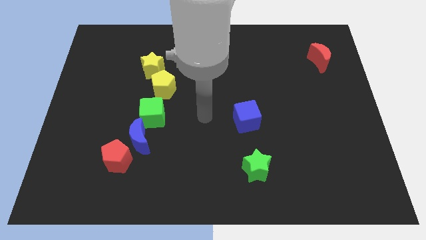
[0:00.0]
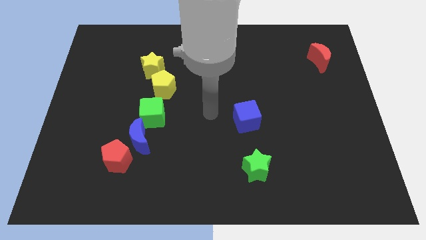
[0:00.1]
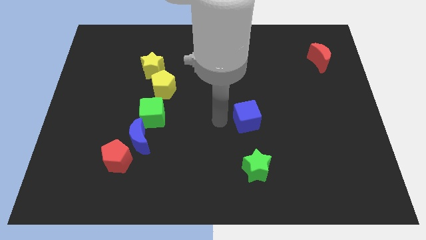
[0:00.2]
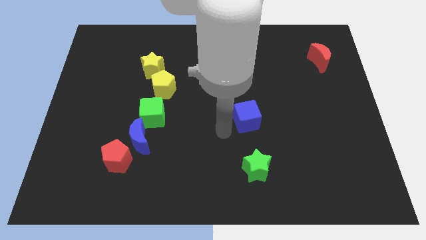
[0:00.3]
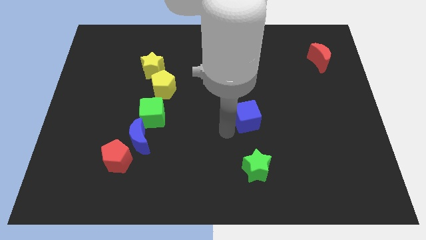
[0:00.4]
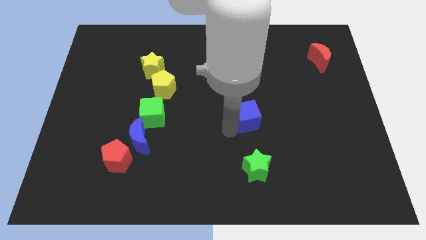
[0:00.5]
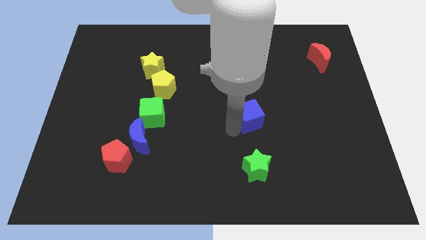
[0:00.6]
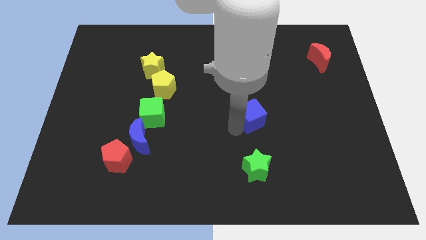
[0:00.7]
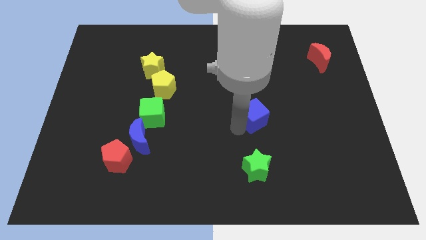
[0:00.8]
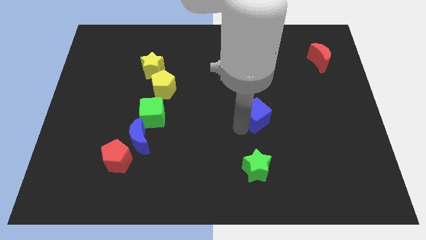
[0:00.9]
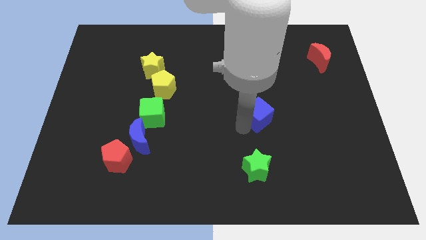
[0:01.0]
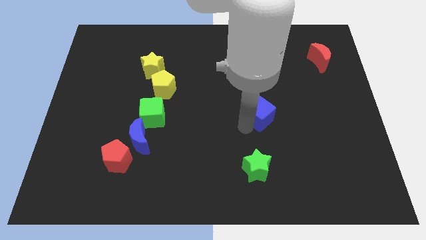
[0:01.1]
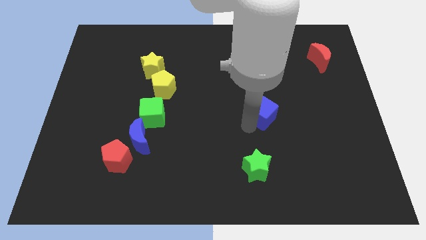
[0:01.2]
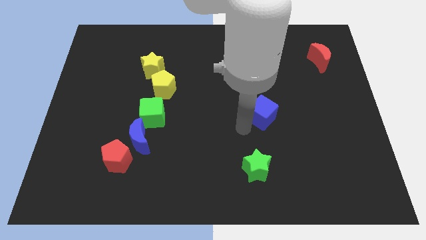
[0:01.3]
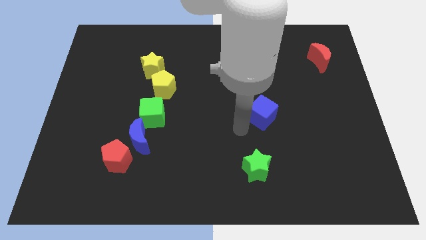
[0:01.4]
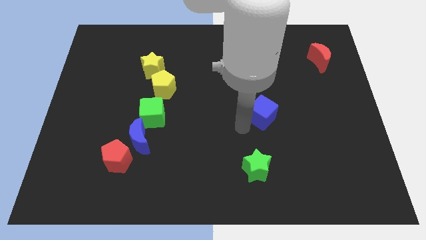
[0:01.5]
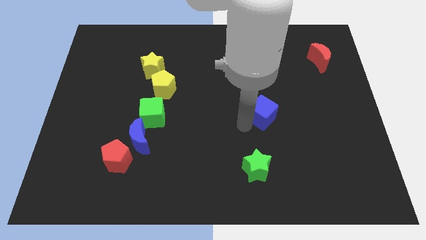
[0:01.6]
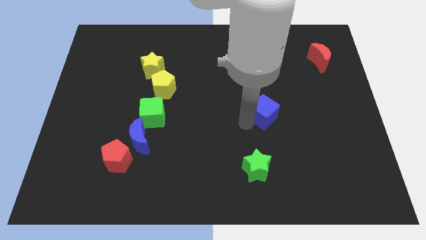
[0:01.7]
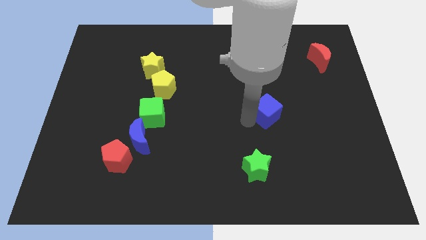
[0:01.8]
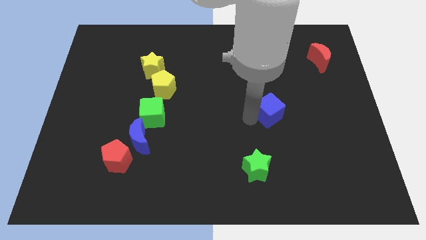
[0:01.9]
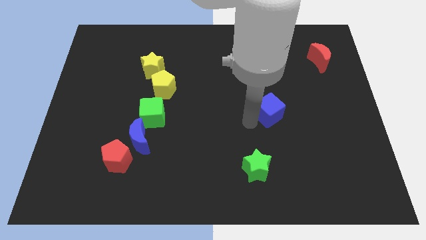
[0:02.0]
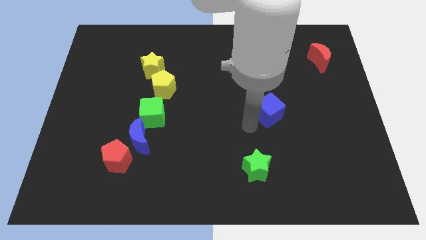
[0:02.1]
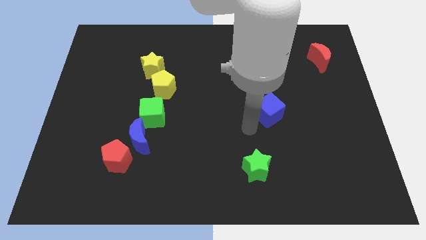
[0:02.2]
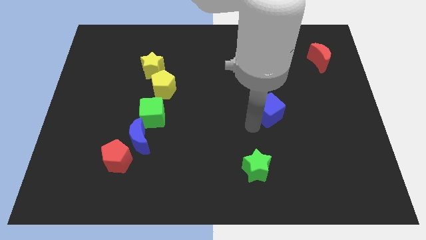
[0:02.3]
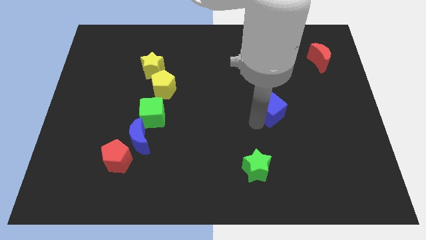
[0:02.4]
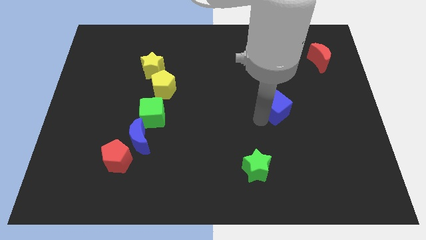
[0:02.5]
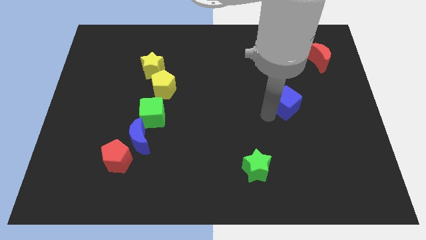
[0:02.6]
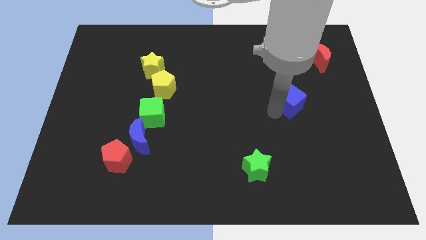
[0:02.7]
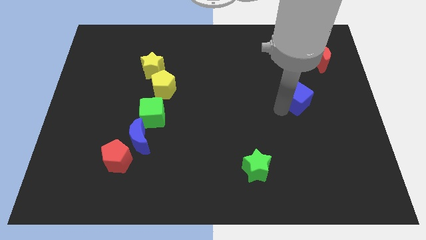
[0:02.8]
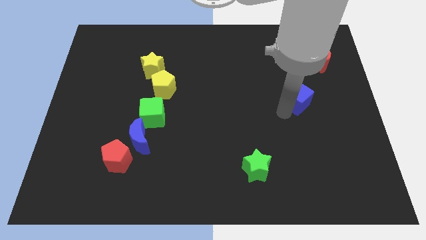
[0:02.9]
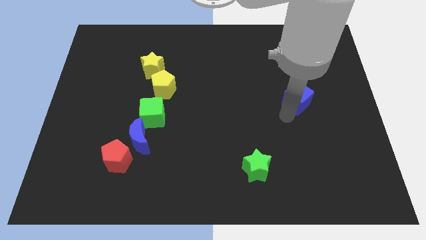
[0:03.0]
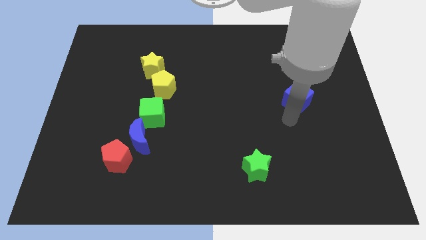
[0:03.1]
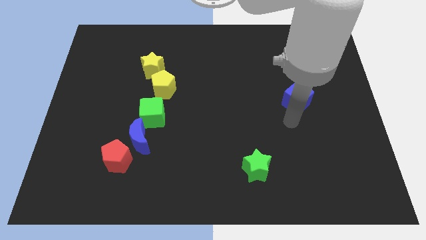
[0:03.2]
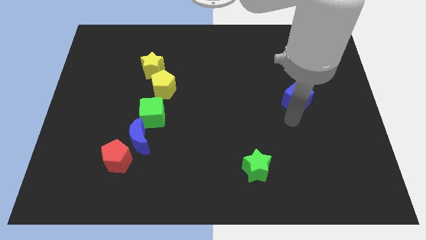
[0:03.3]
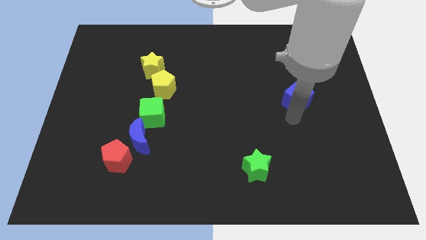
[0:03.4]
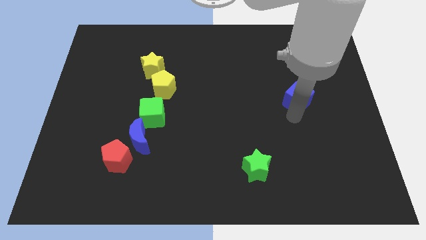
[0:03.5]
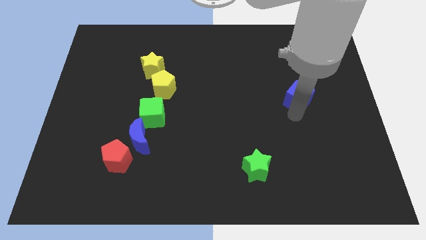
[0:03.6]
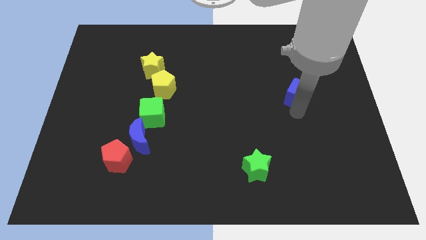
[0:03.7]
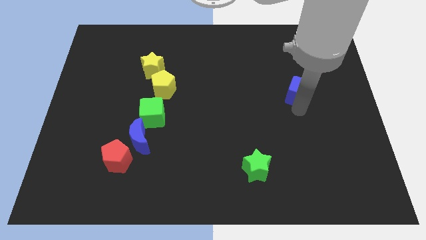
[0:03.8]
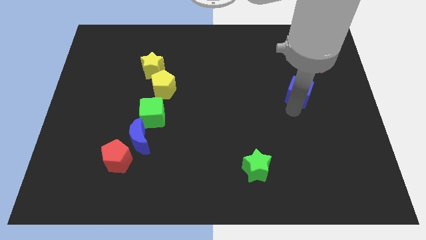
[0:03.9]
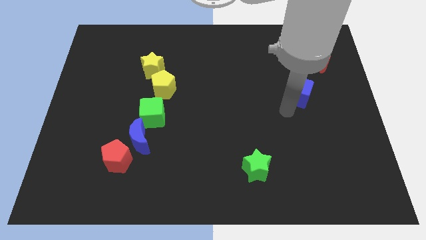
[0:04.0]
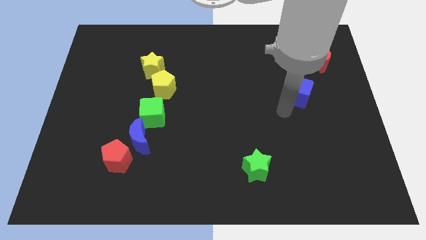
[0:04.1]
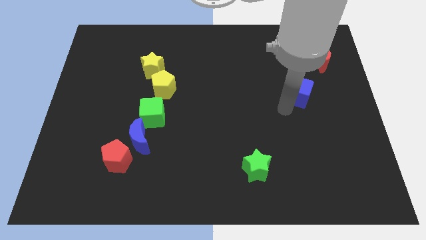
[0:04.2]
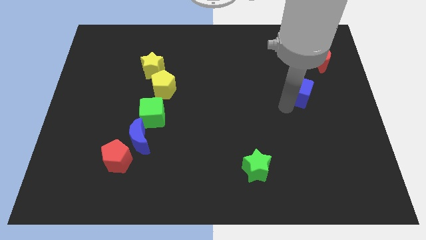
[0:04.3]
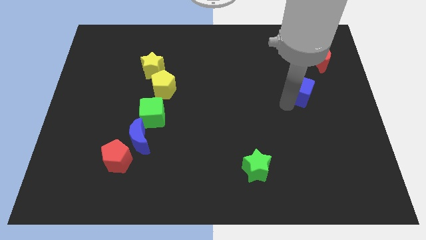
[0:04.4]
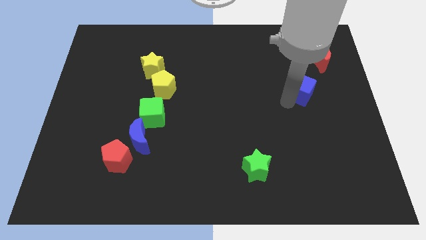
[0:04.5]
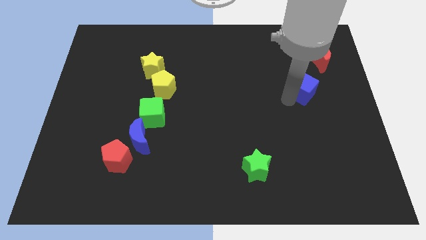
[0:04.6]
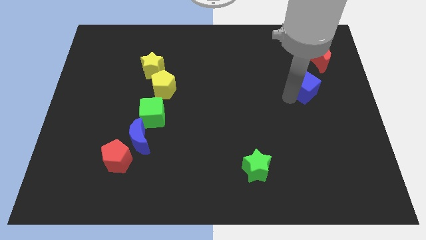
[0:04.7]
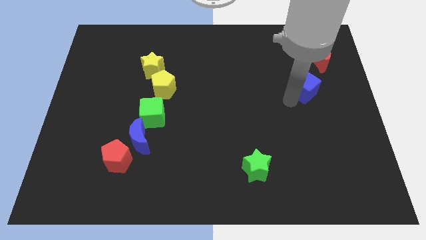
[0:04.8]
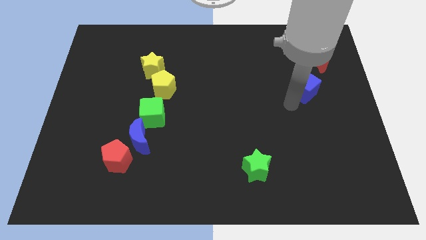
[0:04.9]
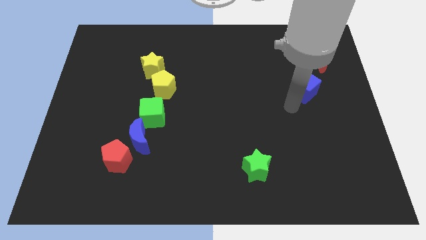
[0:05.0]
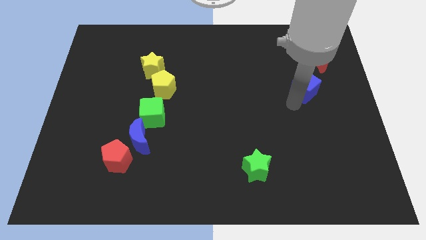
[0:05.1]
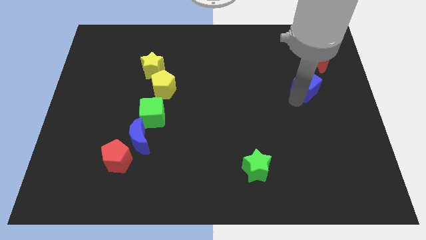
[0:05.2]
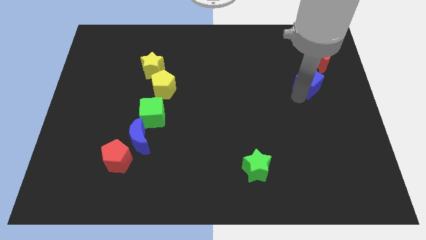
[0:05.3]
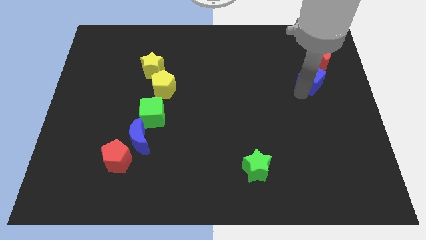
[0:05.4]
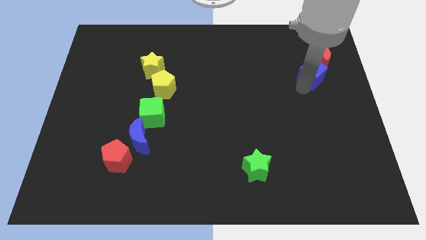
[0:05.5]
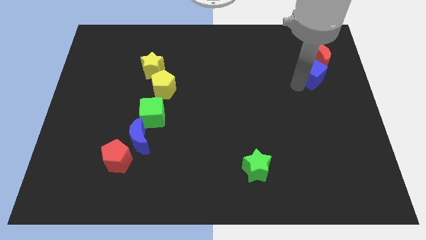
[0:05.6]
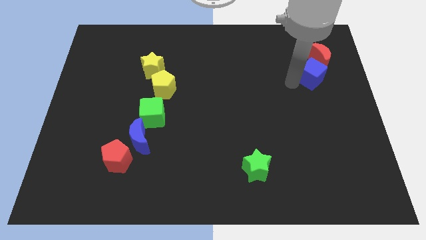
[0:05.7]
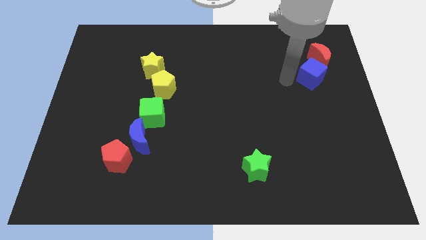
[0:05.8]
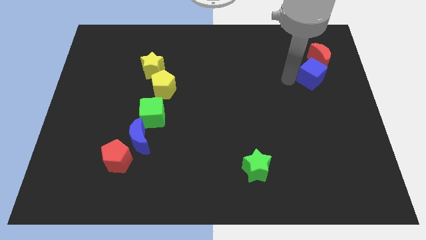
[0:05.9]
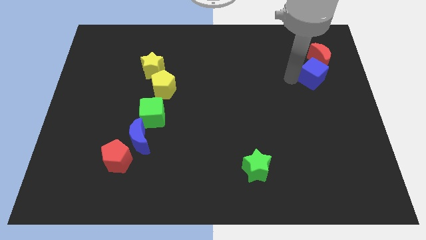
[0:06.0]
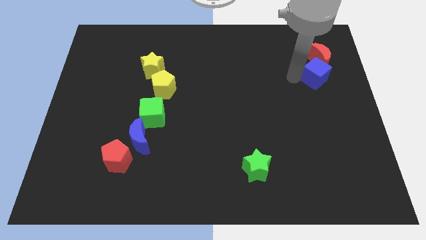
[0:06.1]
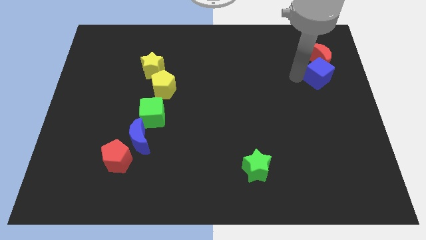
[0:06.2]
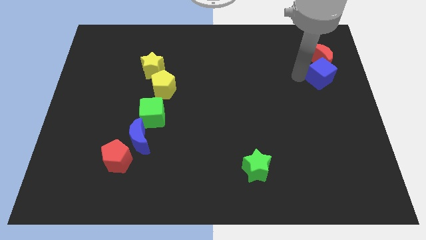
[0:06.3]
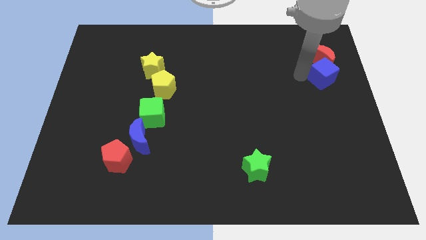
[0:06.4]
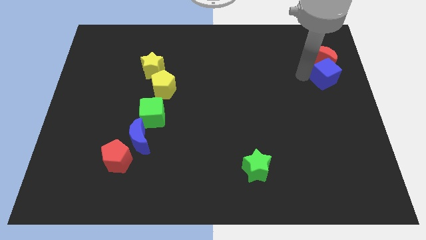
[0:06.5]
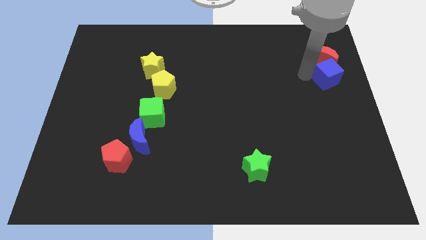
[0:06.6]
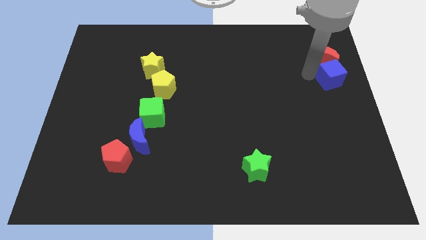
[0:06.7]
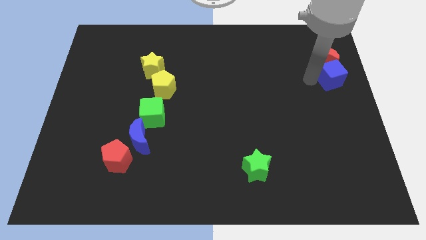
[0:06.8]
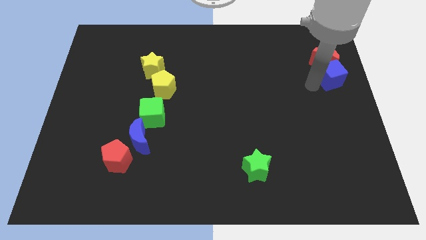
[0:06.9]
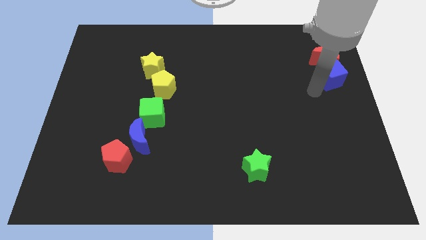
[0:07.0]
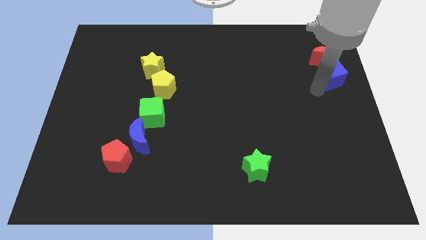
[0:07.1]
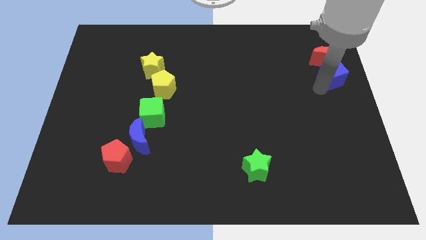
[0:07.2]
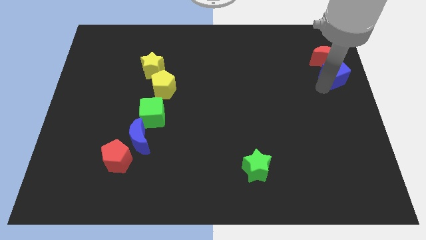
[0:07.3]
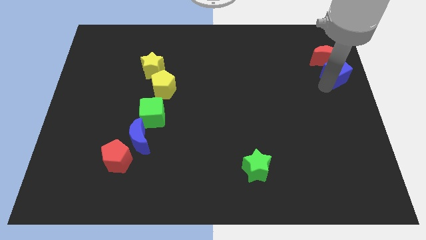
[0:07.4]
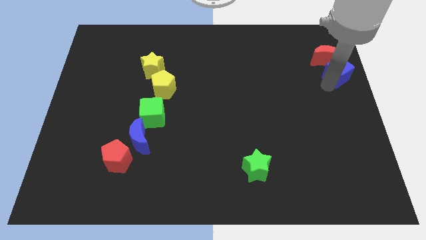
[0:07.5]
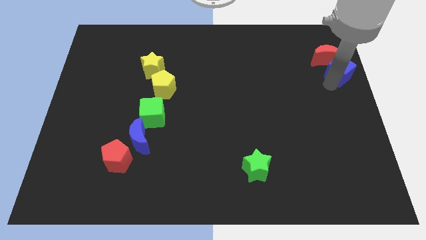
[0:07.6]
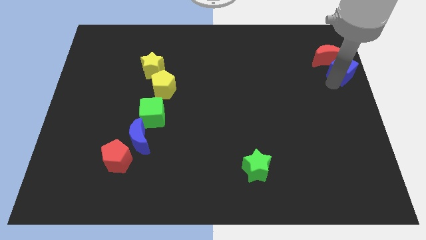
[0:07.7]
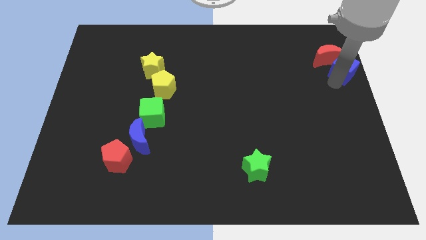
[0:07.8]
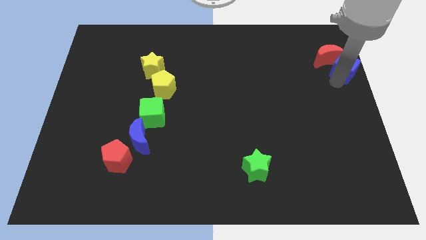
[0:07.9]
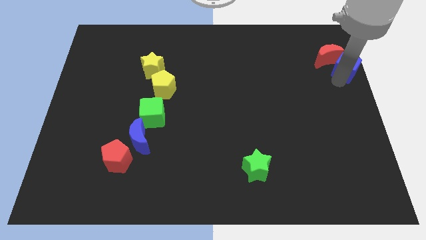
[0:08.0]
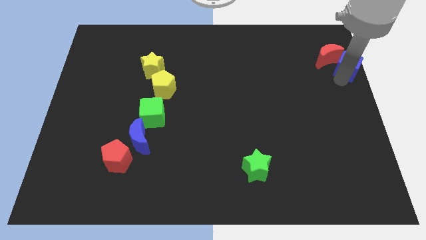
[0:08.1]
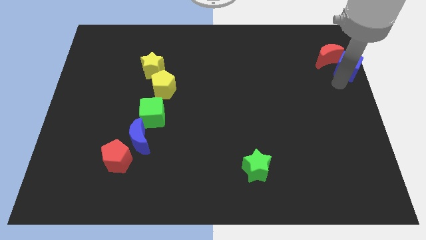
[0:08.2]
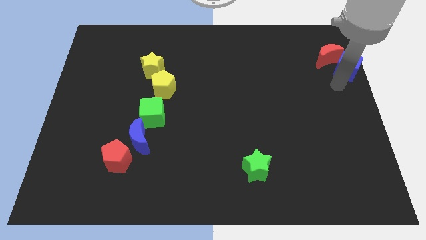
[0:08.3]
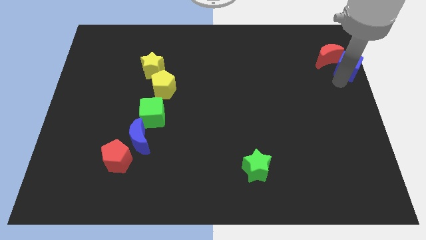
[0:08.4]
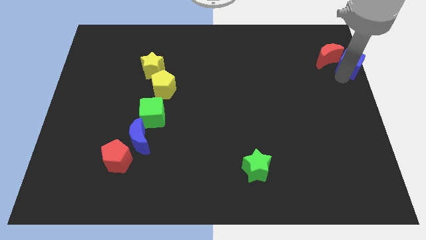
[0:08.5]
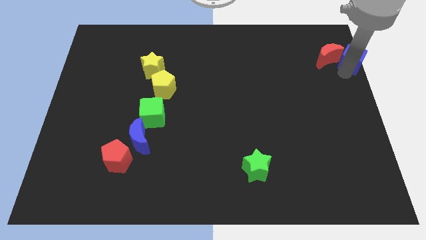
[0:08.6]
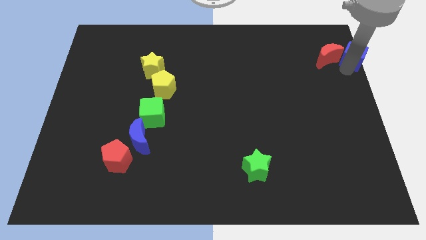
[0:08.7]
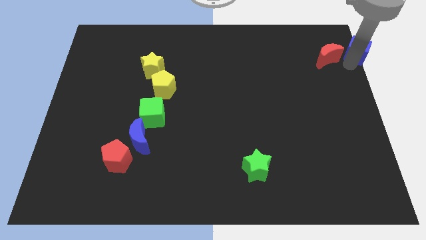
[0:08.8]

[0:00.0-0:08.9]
move the blue cube to the upper right corner
